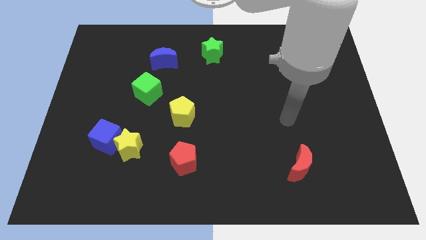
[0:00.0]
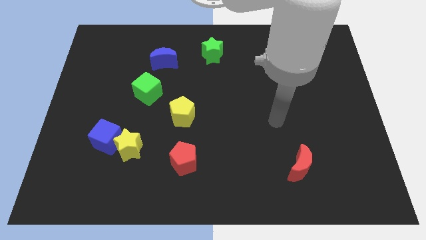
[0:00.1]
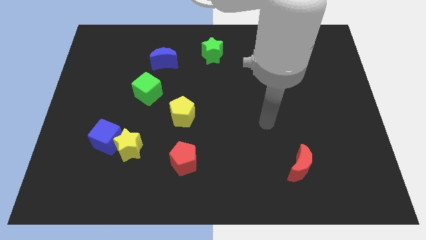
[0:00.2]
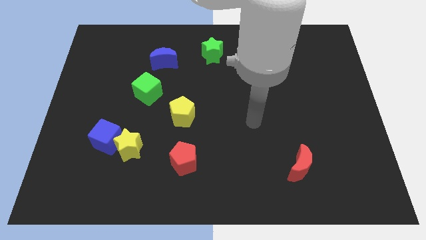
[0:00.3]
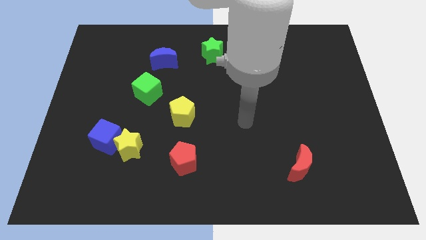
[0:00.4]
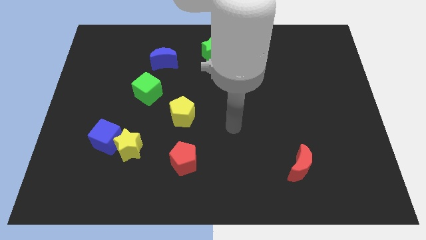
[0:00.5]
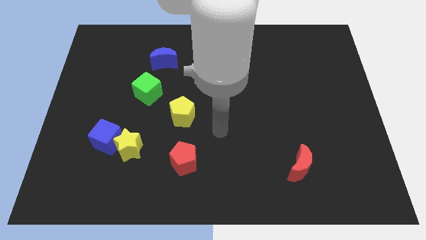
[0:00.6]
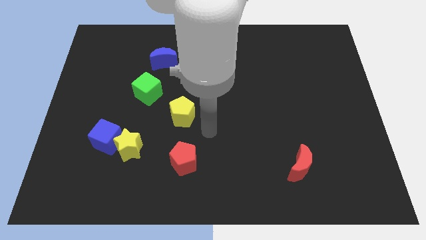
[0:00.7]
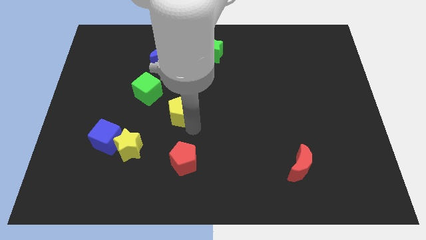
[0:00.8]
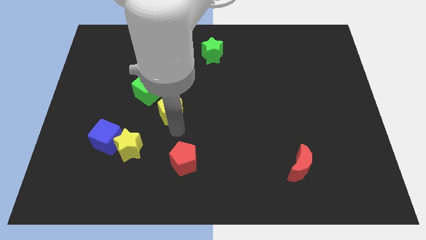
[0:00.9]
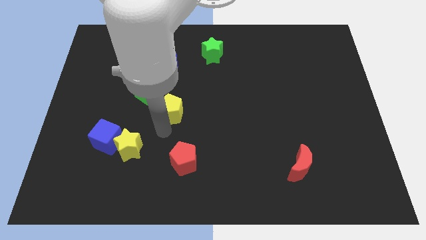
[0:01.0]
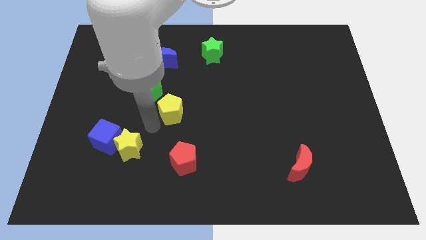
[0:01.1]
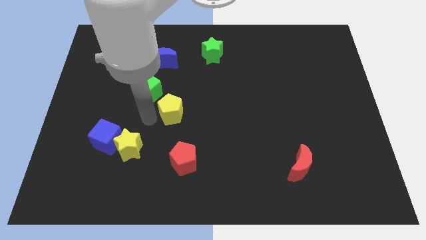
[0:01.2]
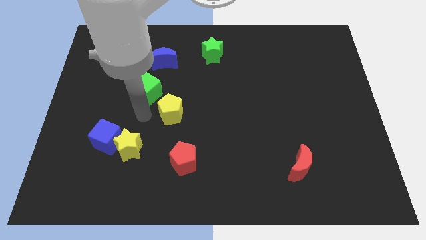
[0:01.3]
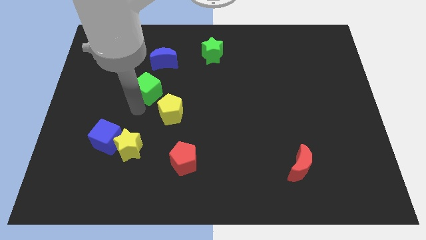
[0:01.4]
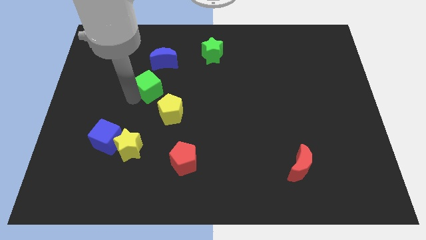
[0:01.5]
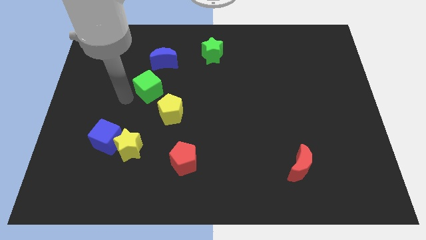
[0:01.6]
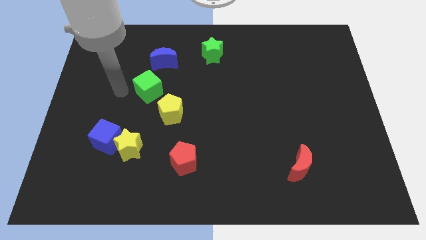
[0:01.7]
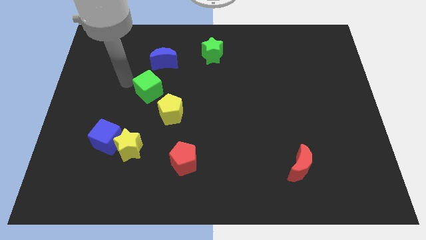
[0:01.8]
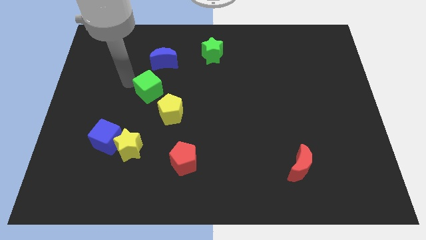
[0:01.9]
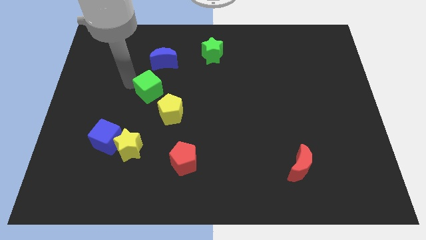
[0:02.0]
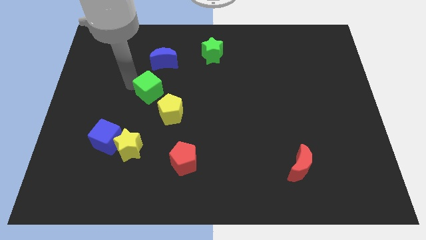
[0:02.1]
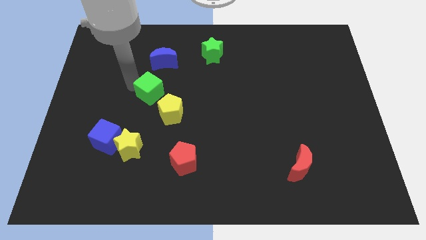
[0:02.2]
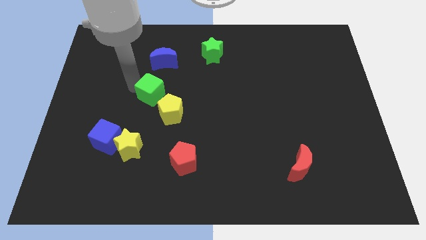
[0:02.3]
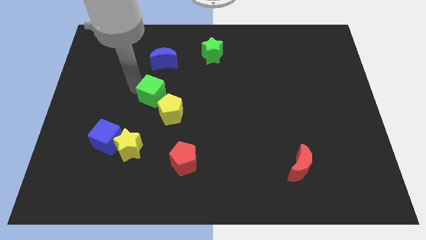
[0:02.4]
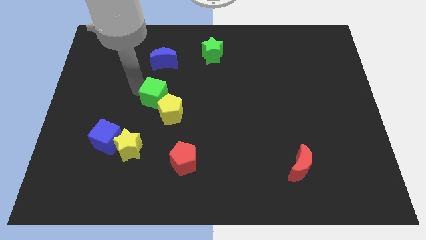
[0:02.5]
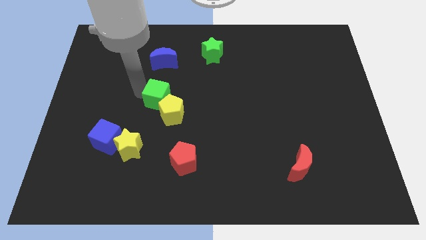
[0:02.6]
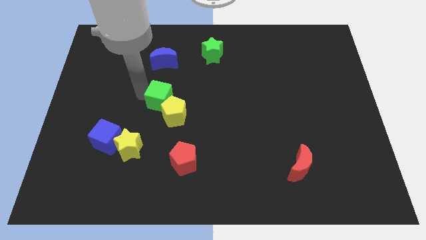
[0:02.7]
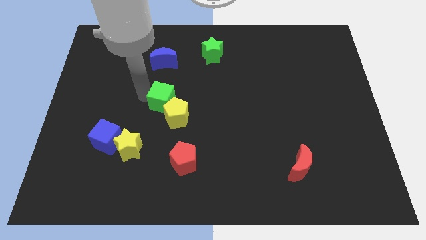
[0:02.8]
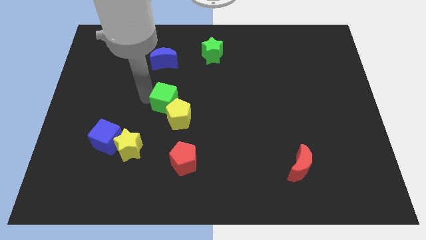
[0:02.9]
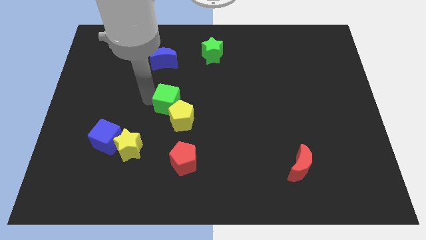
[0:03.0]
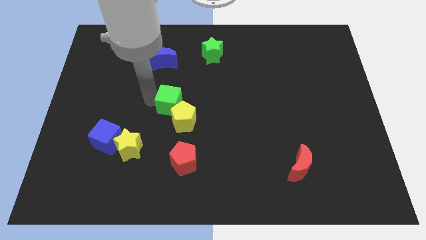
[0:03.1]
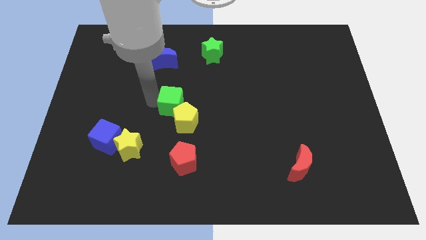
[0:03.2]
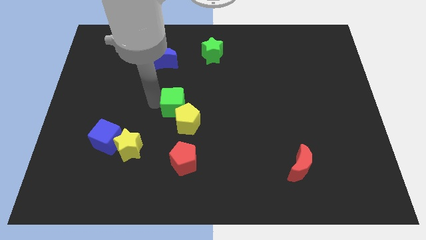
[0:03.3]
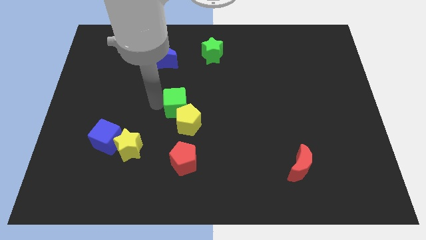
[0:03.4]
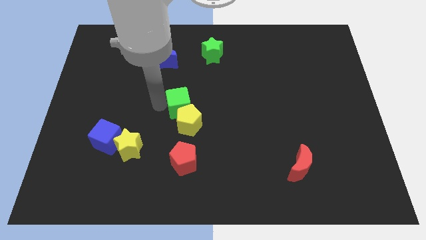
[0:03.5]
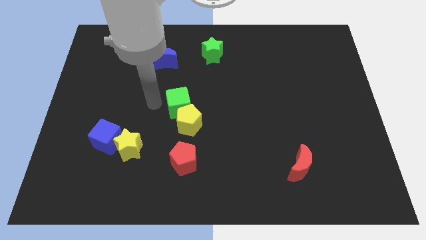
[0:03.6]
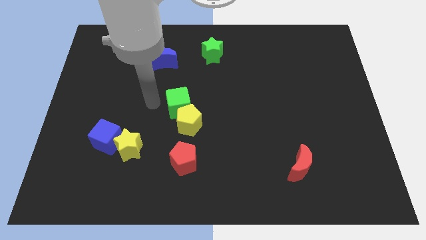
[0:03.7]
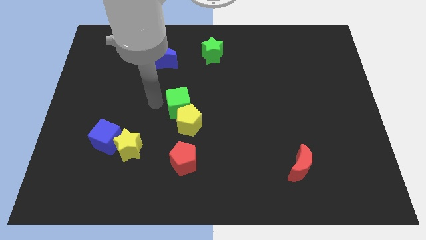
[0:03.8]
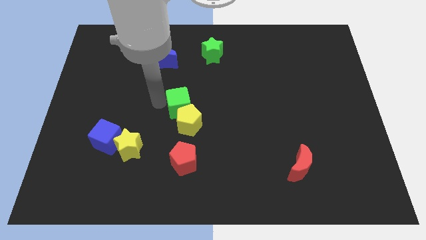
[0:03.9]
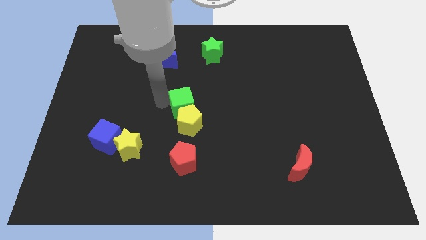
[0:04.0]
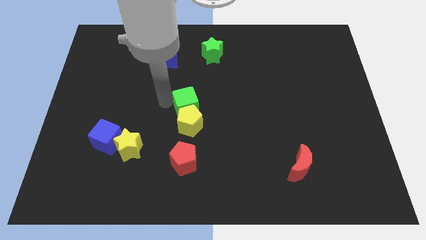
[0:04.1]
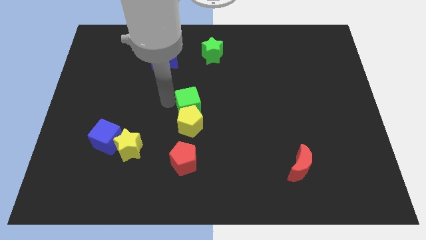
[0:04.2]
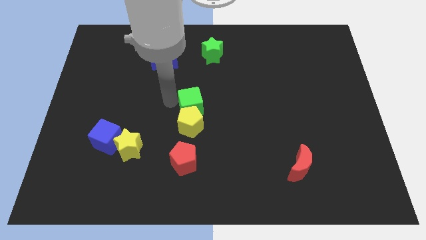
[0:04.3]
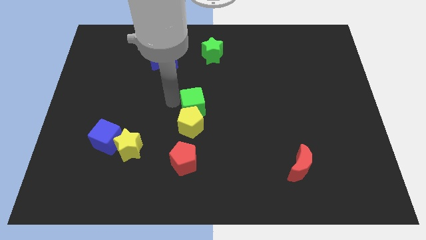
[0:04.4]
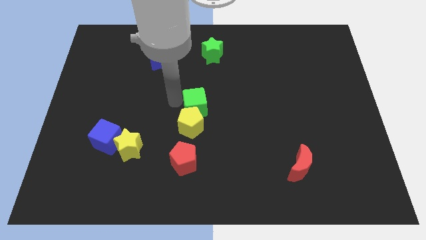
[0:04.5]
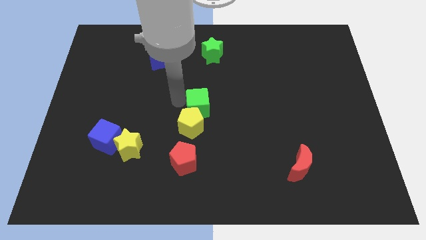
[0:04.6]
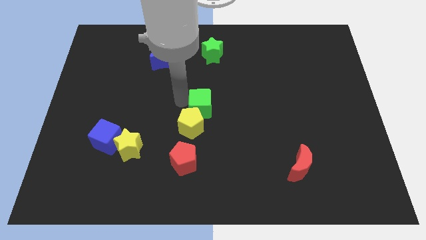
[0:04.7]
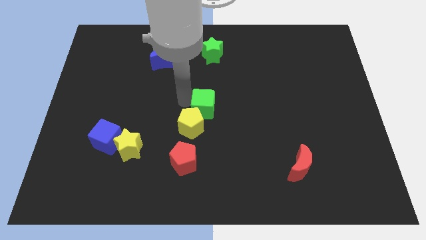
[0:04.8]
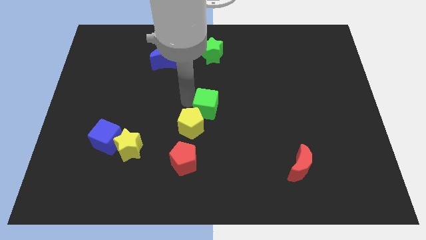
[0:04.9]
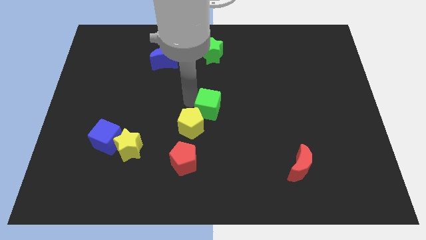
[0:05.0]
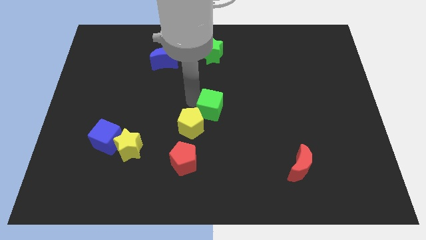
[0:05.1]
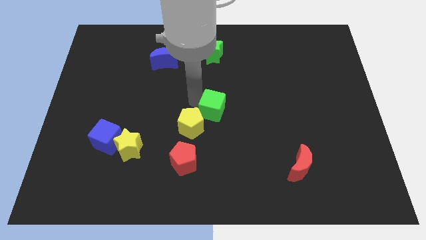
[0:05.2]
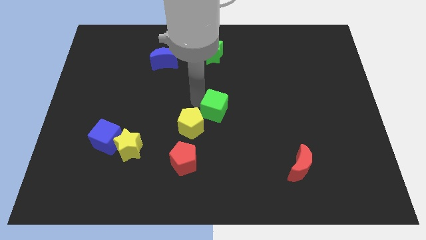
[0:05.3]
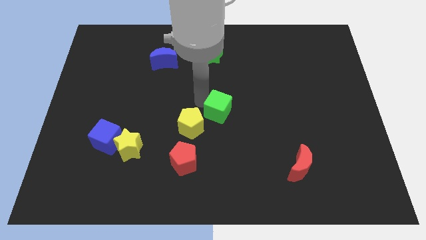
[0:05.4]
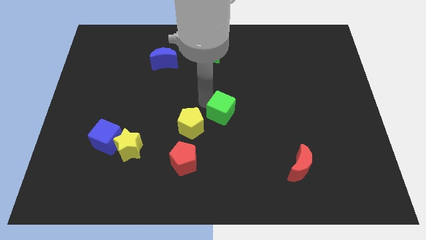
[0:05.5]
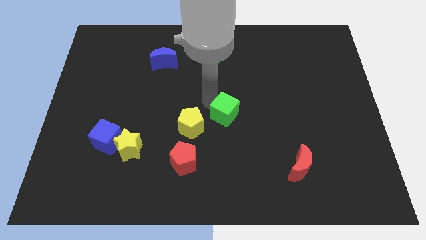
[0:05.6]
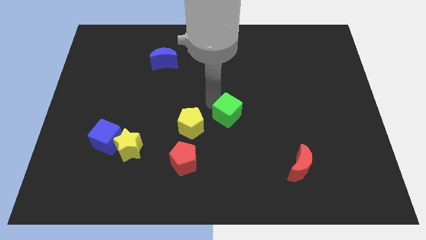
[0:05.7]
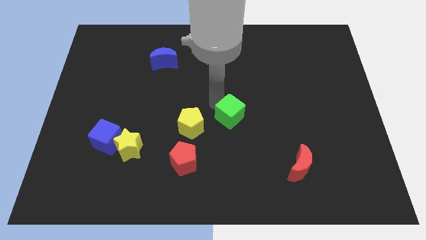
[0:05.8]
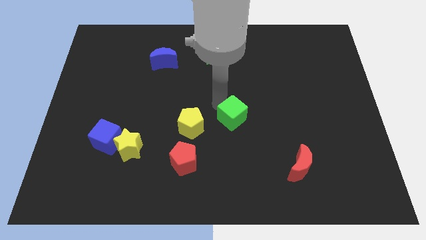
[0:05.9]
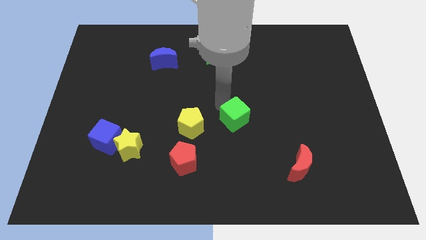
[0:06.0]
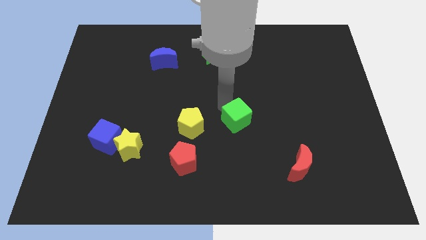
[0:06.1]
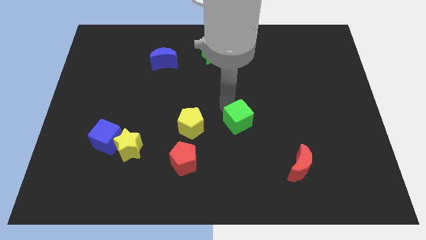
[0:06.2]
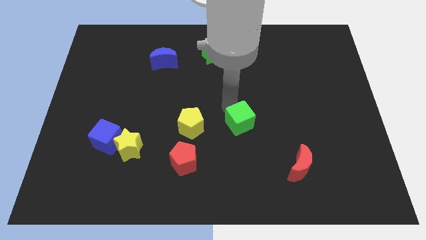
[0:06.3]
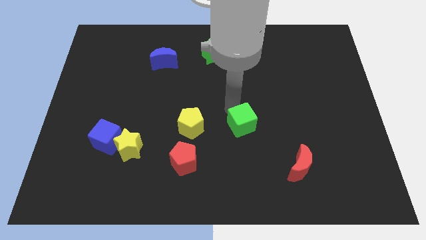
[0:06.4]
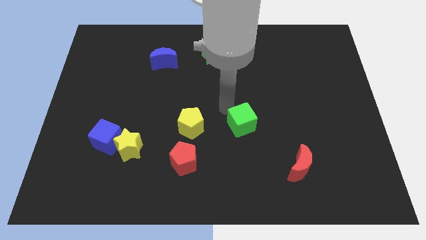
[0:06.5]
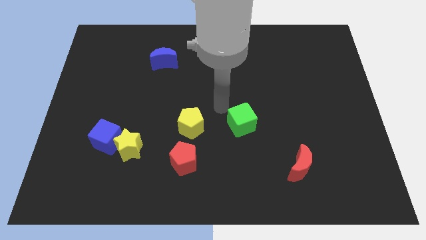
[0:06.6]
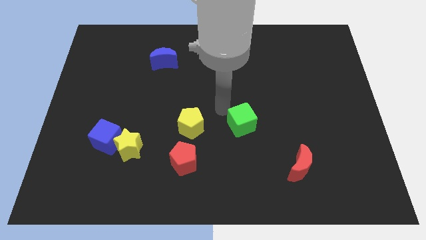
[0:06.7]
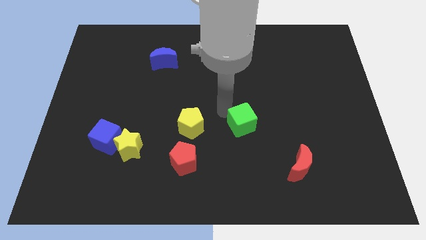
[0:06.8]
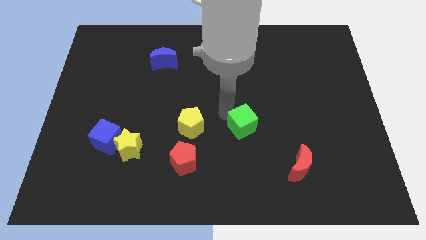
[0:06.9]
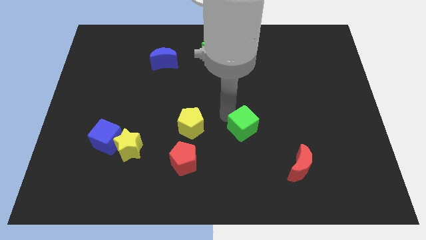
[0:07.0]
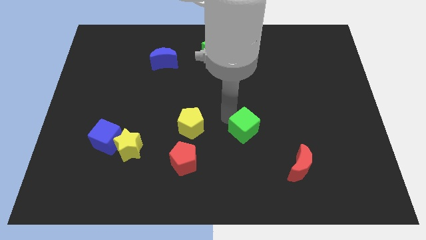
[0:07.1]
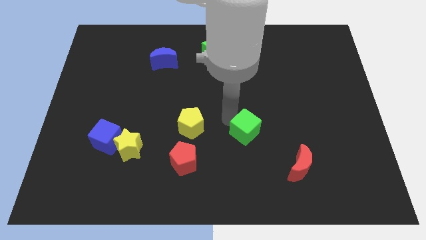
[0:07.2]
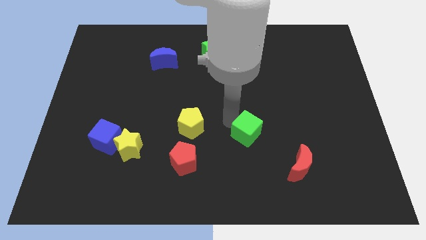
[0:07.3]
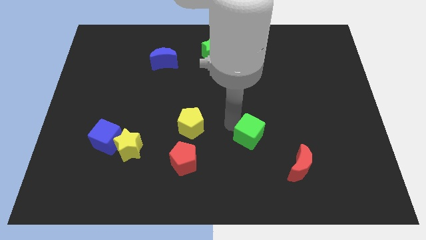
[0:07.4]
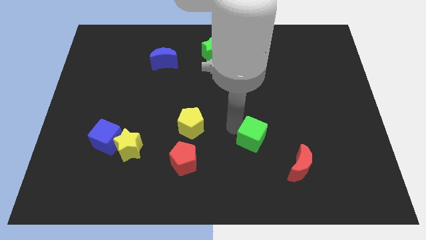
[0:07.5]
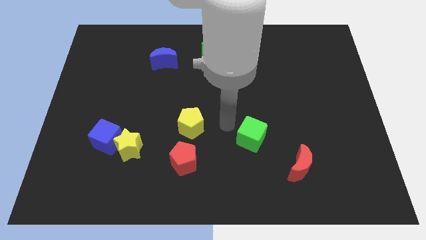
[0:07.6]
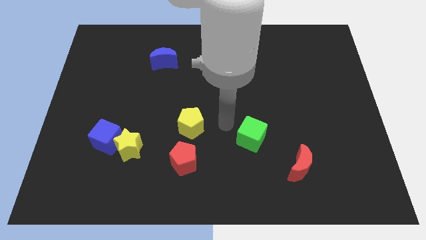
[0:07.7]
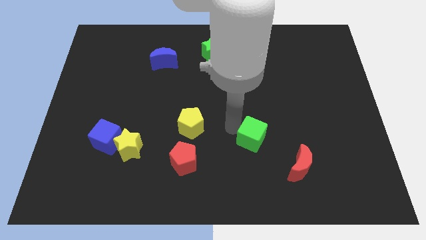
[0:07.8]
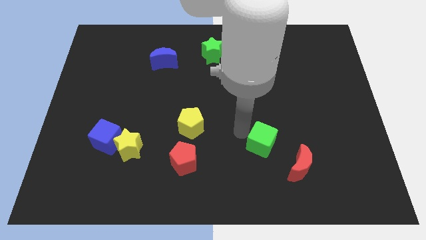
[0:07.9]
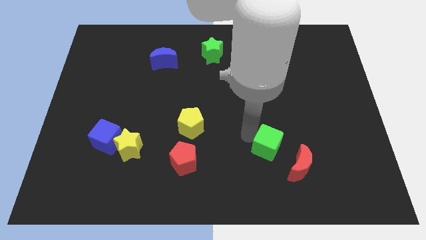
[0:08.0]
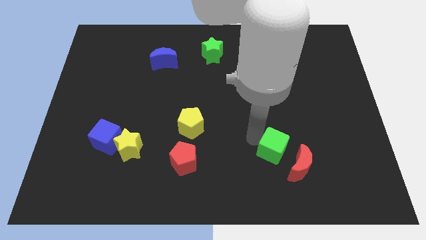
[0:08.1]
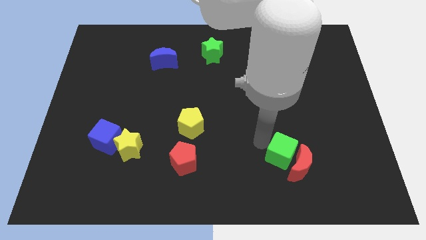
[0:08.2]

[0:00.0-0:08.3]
move the green cube towards the red moon
